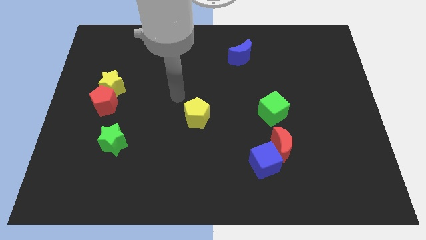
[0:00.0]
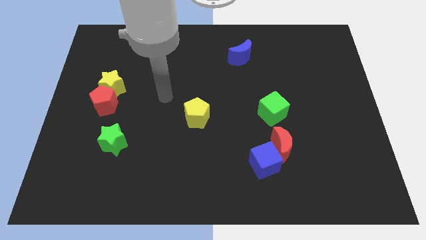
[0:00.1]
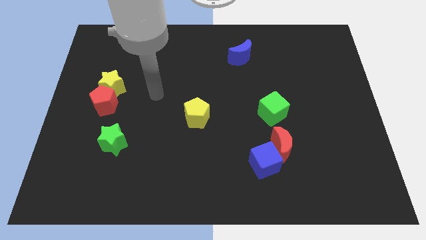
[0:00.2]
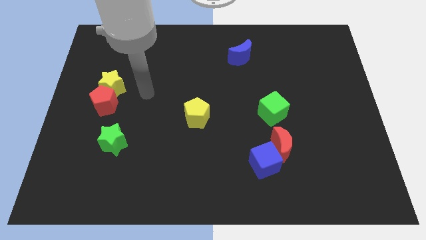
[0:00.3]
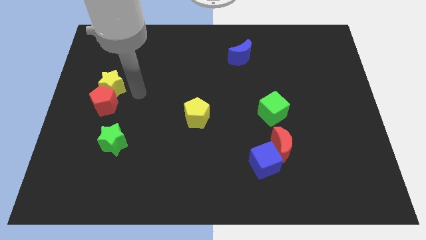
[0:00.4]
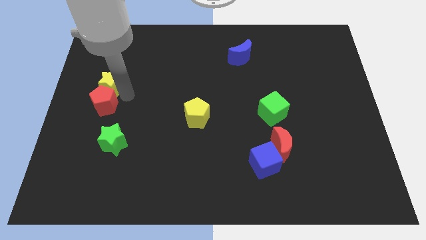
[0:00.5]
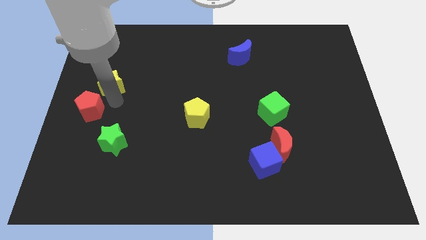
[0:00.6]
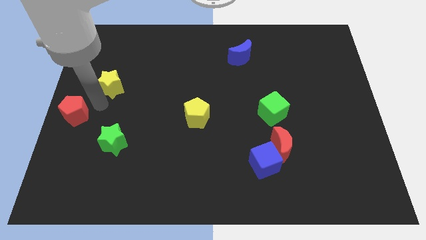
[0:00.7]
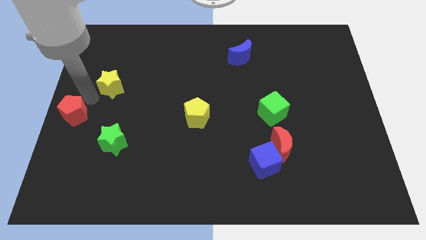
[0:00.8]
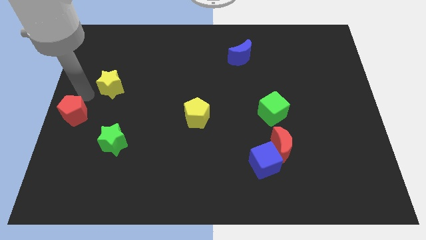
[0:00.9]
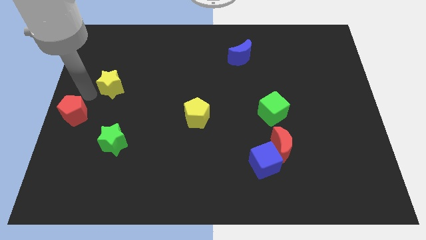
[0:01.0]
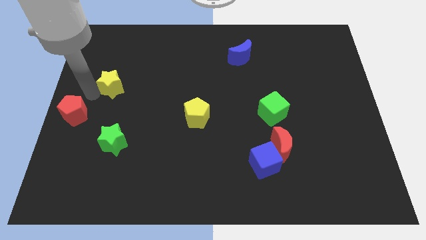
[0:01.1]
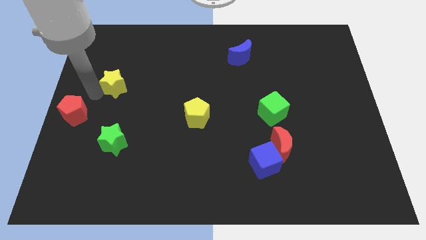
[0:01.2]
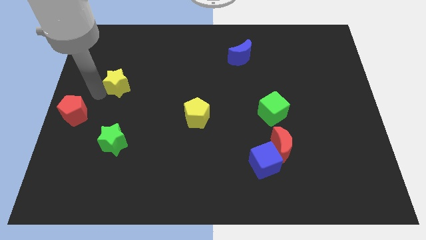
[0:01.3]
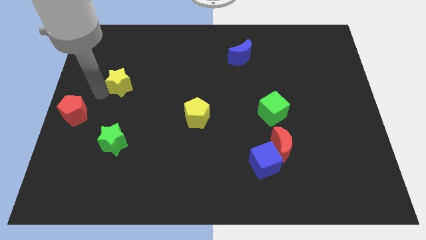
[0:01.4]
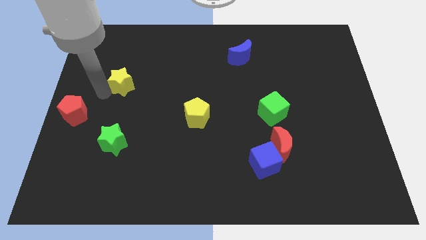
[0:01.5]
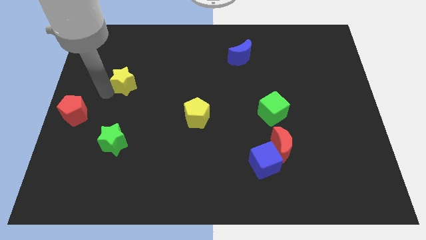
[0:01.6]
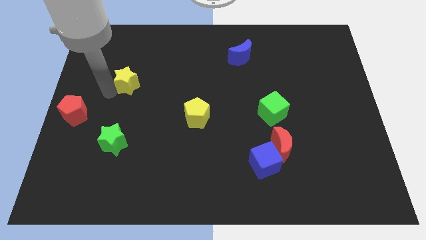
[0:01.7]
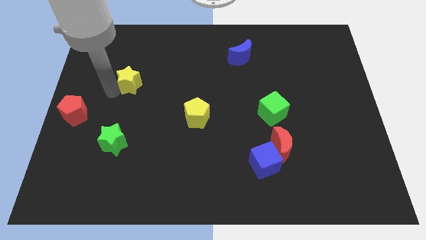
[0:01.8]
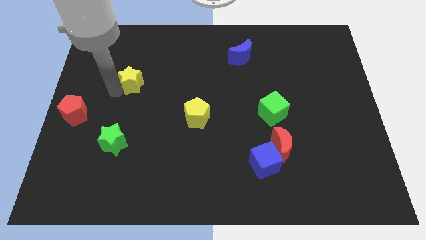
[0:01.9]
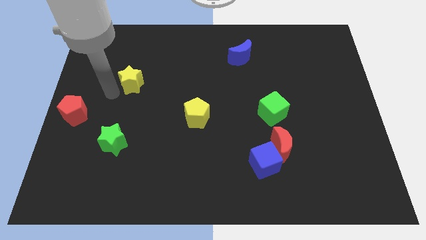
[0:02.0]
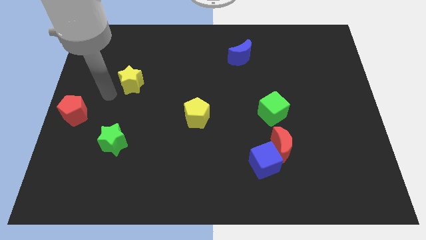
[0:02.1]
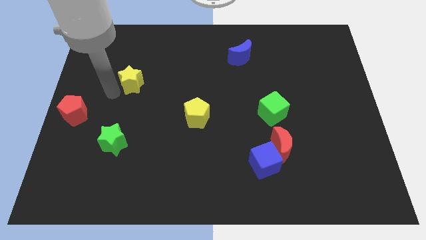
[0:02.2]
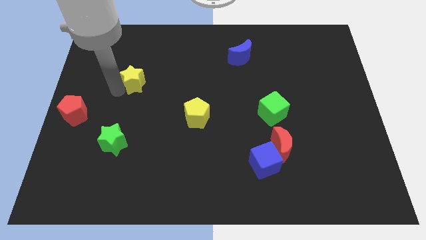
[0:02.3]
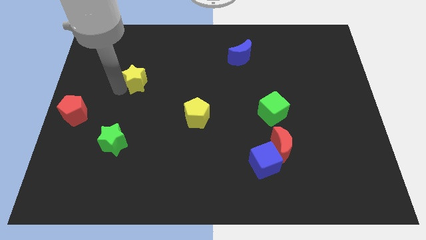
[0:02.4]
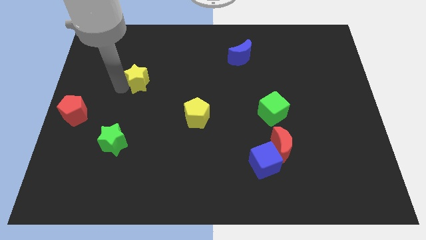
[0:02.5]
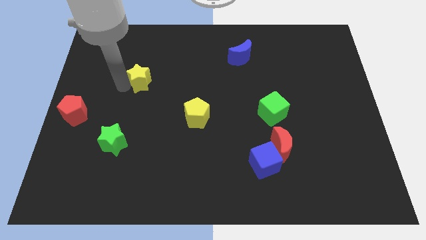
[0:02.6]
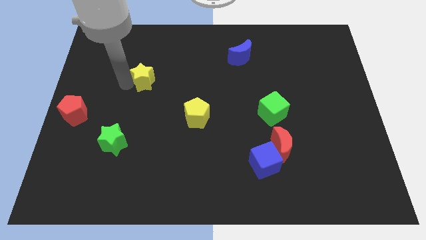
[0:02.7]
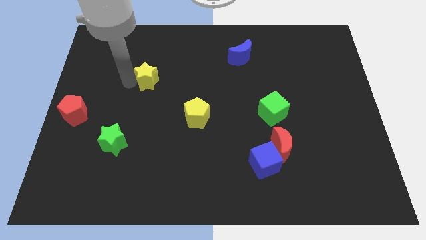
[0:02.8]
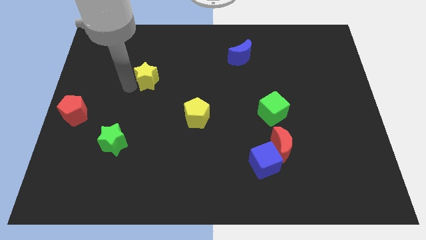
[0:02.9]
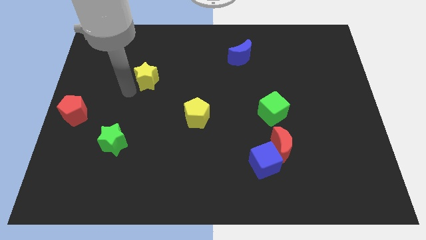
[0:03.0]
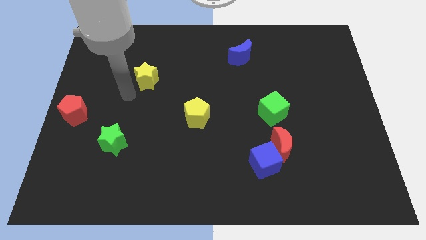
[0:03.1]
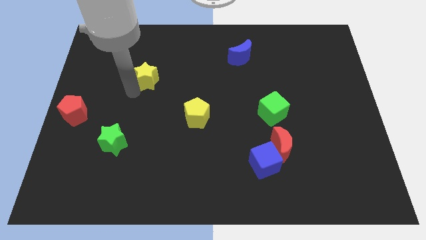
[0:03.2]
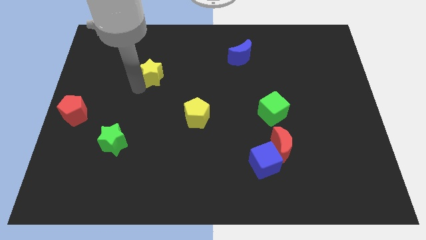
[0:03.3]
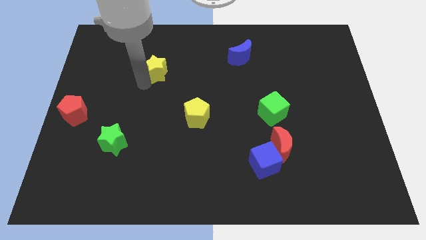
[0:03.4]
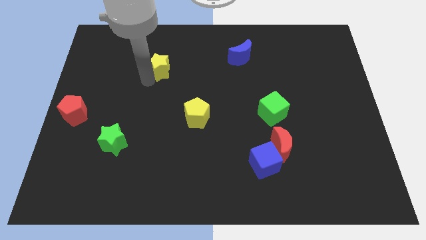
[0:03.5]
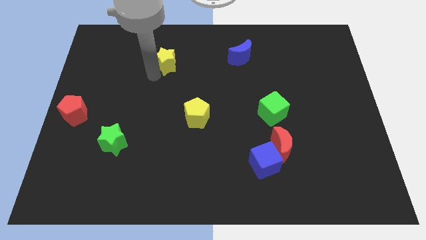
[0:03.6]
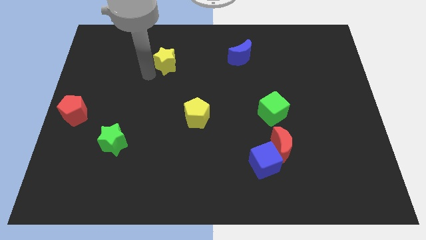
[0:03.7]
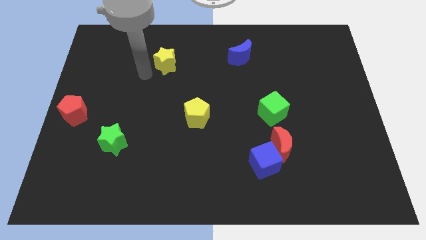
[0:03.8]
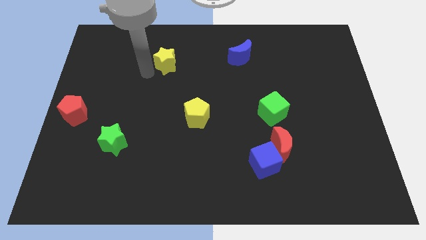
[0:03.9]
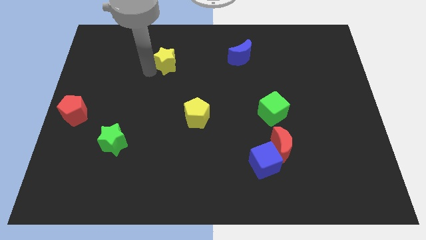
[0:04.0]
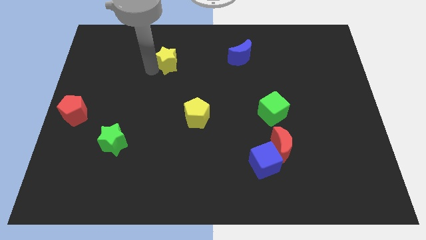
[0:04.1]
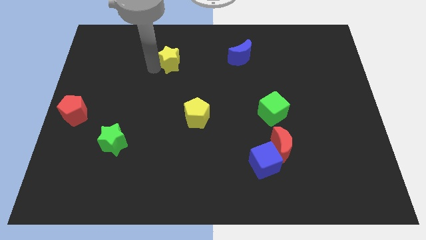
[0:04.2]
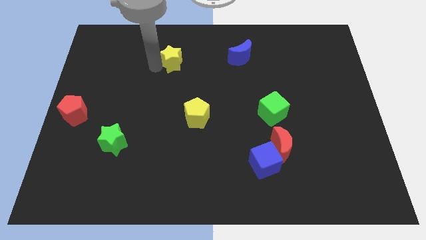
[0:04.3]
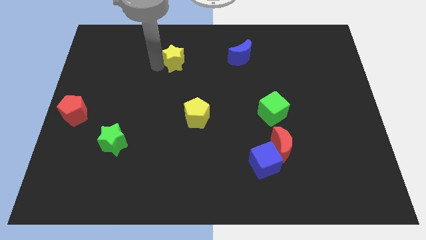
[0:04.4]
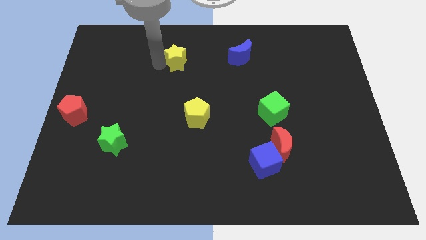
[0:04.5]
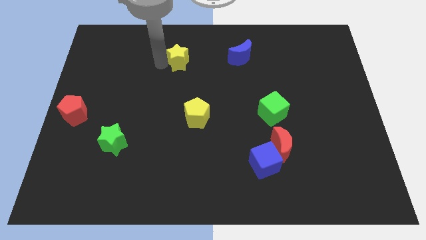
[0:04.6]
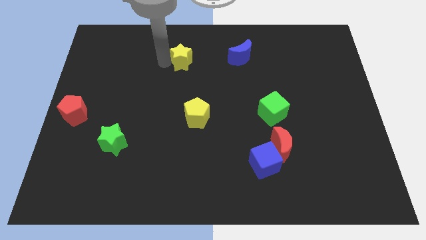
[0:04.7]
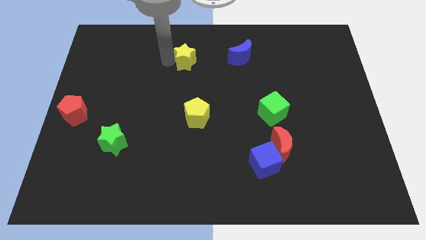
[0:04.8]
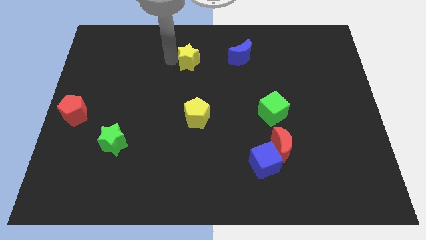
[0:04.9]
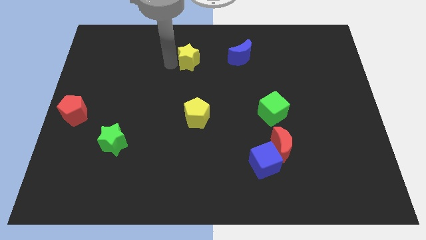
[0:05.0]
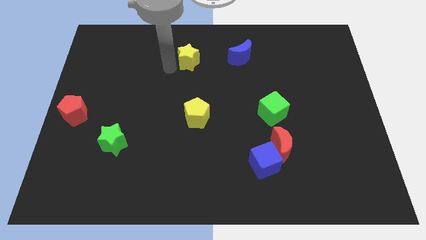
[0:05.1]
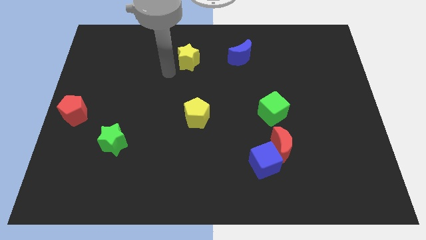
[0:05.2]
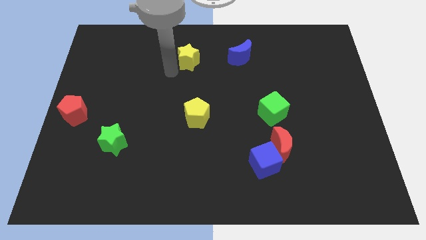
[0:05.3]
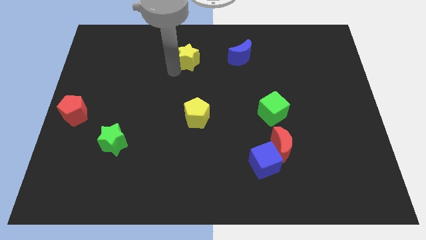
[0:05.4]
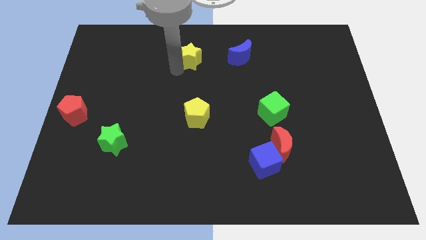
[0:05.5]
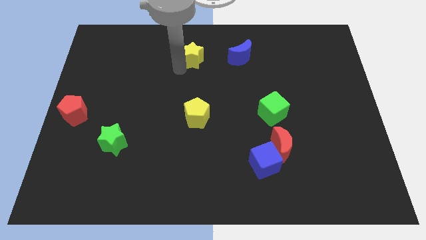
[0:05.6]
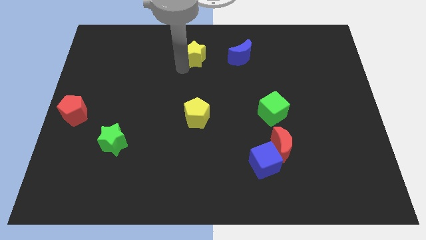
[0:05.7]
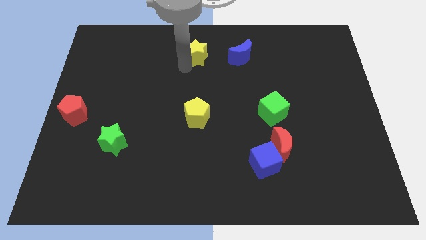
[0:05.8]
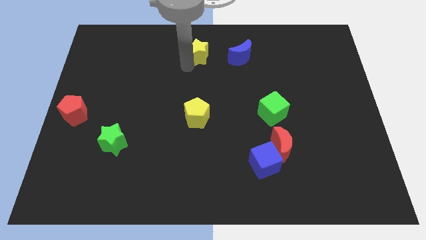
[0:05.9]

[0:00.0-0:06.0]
slide the yellow star to the top side

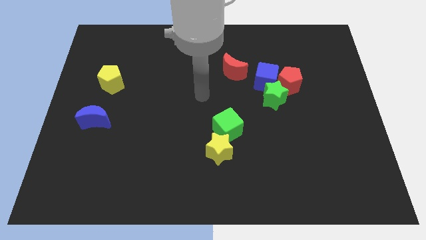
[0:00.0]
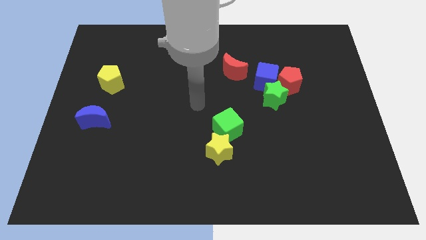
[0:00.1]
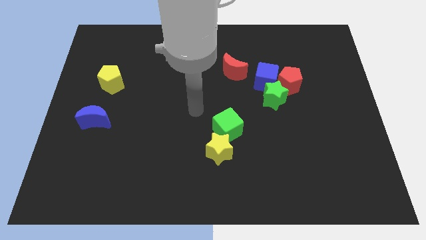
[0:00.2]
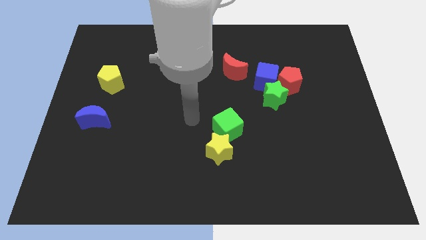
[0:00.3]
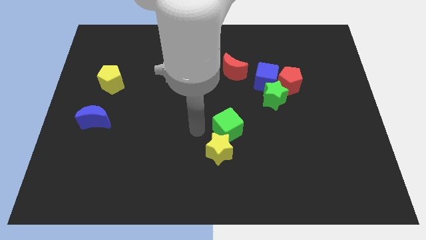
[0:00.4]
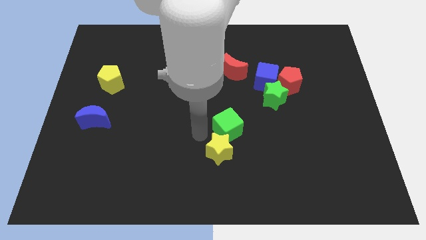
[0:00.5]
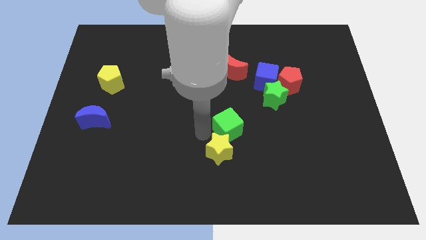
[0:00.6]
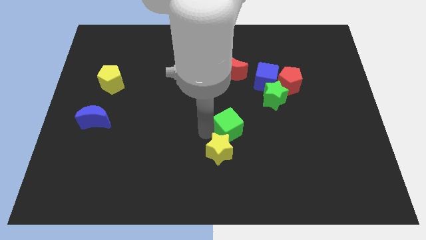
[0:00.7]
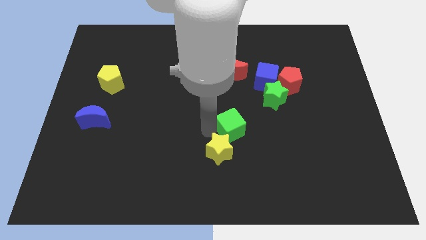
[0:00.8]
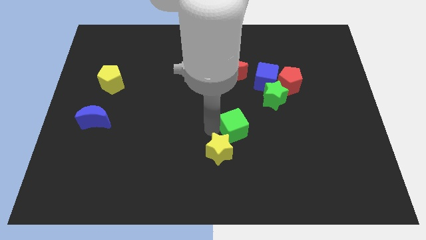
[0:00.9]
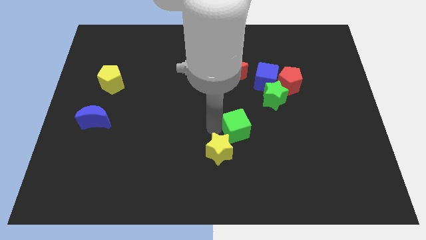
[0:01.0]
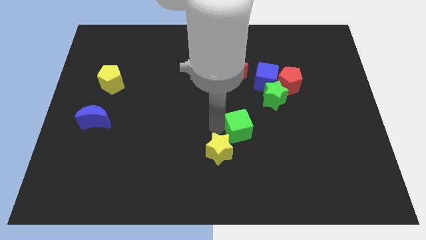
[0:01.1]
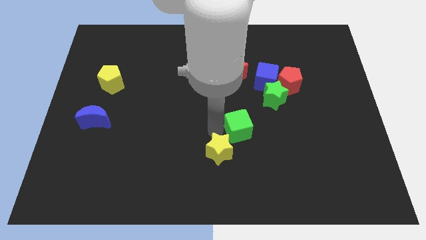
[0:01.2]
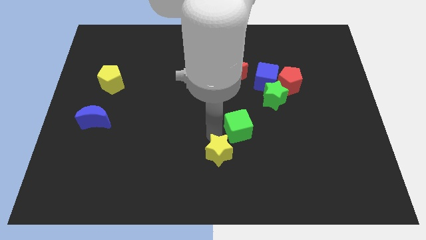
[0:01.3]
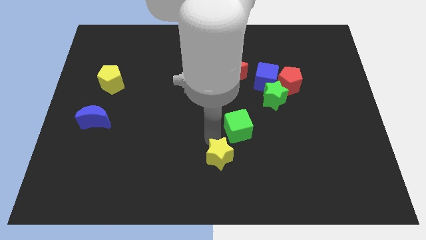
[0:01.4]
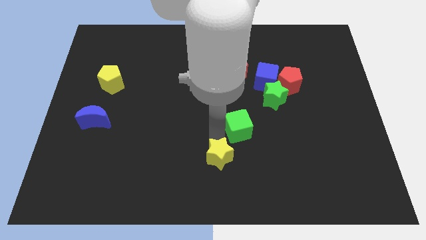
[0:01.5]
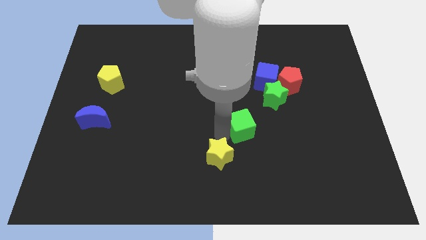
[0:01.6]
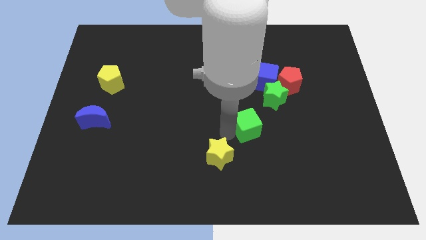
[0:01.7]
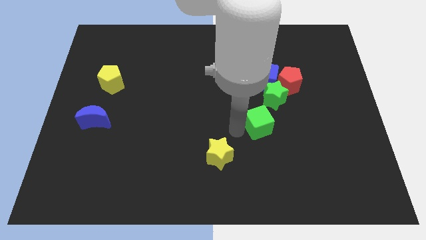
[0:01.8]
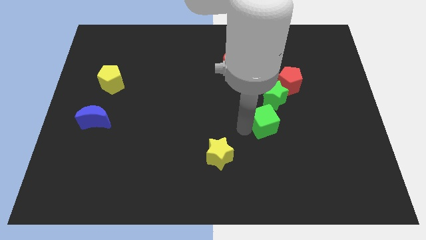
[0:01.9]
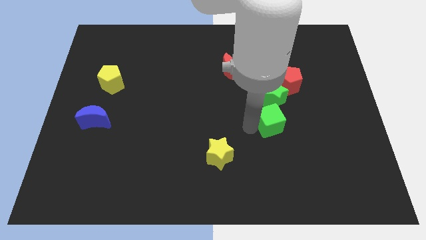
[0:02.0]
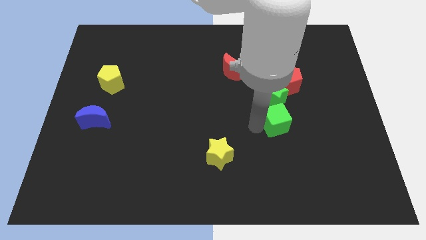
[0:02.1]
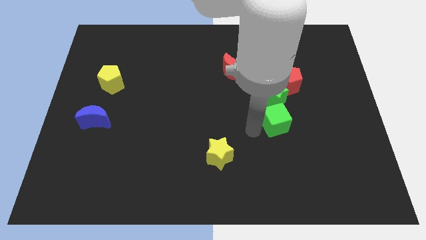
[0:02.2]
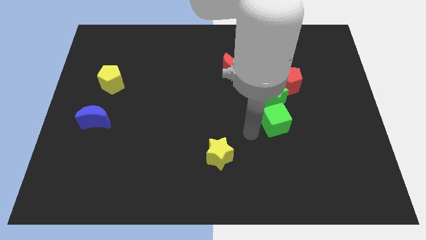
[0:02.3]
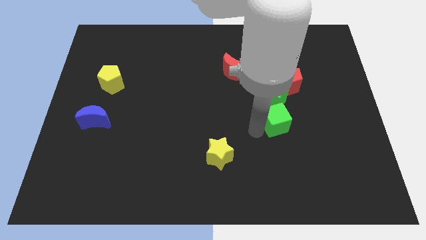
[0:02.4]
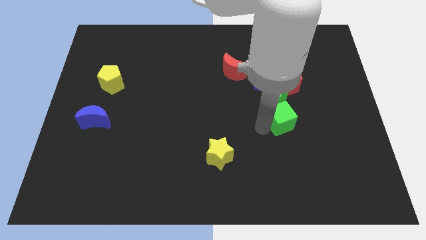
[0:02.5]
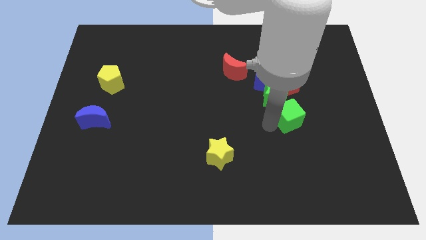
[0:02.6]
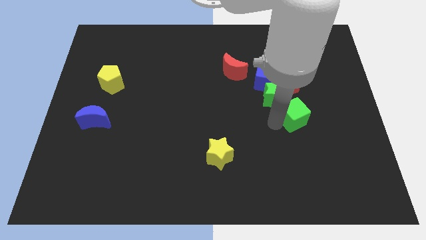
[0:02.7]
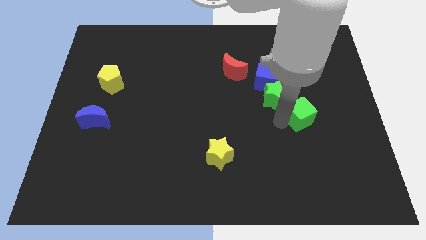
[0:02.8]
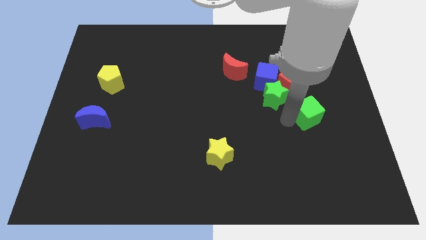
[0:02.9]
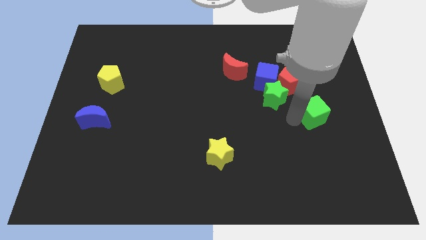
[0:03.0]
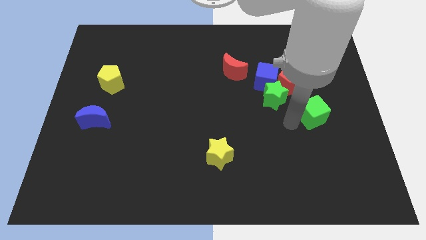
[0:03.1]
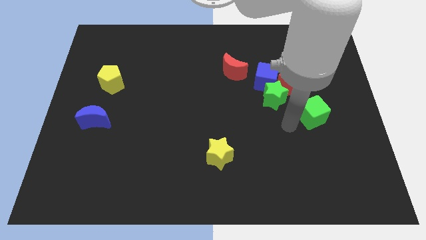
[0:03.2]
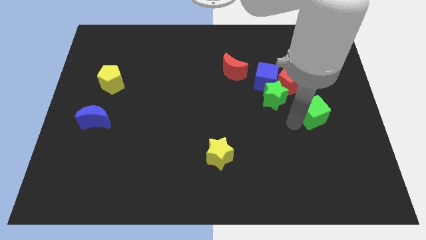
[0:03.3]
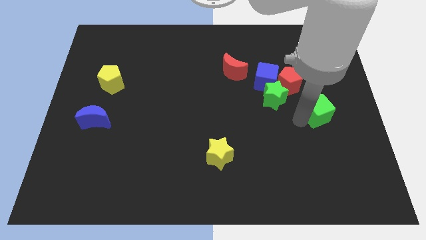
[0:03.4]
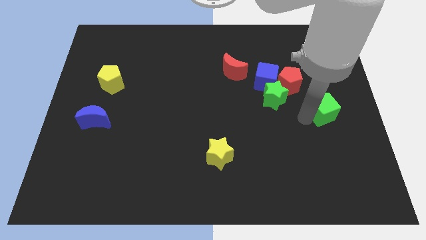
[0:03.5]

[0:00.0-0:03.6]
push the green cube to the right side of the board
